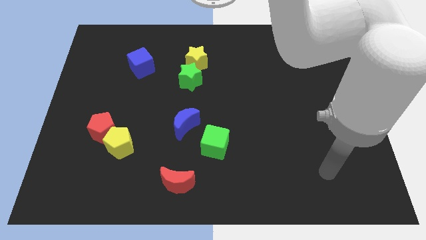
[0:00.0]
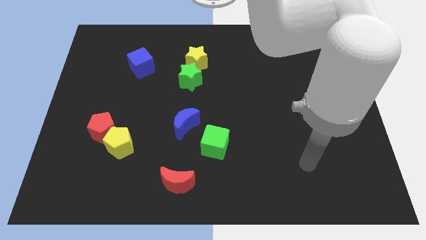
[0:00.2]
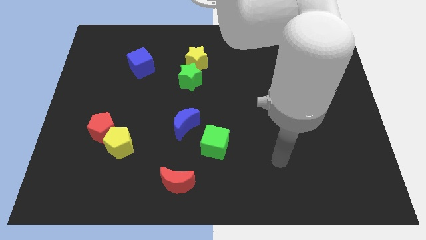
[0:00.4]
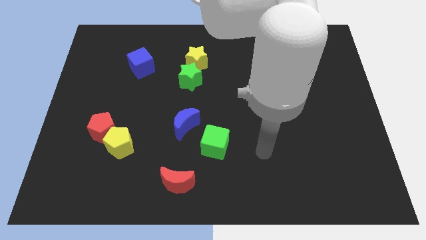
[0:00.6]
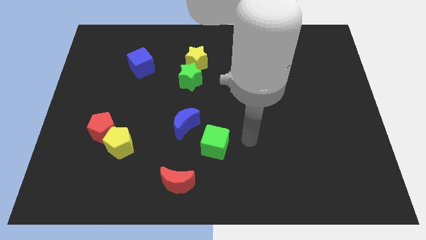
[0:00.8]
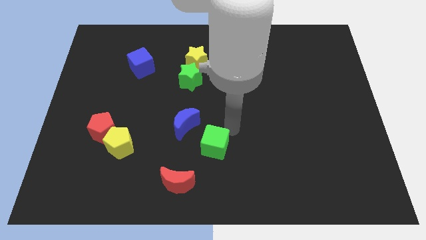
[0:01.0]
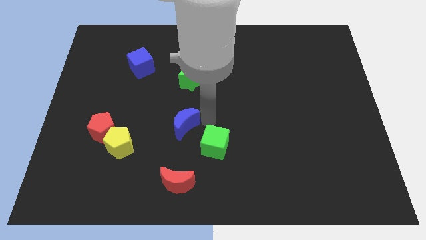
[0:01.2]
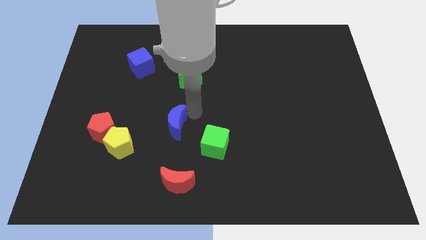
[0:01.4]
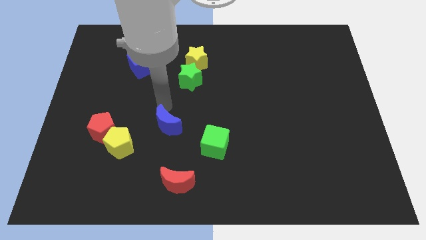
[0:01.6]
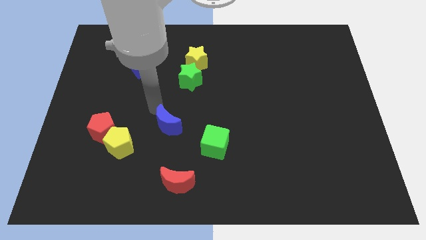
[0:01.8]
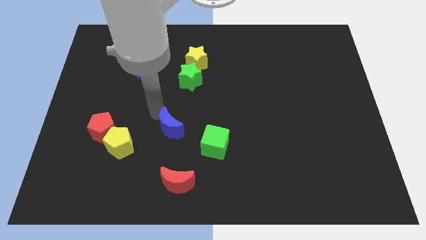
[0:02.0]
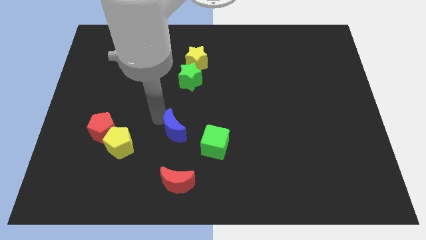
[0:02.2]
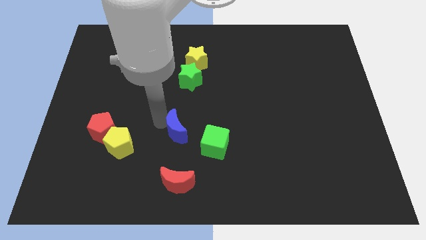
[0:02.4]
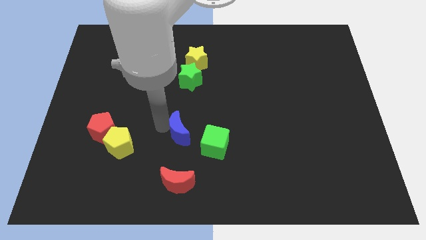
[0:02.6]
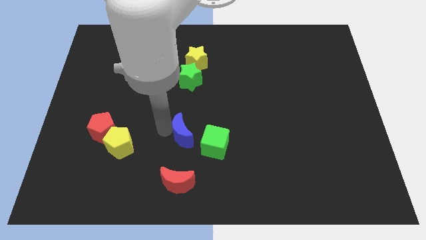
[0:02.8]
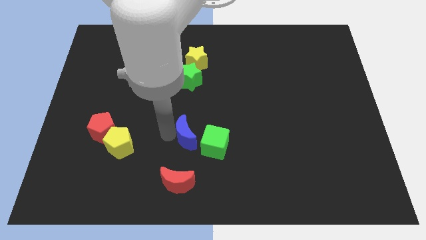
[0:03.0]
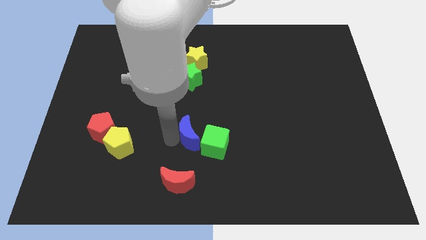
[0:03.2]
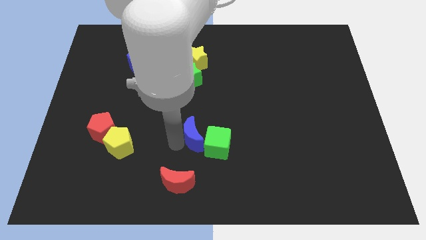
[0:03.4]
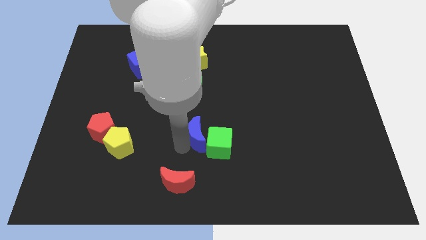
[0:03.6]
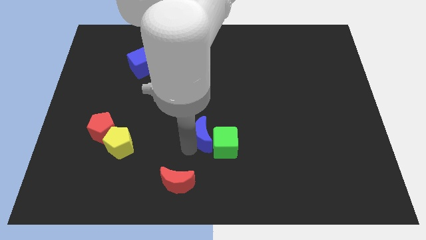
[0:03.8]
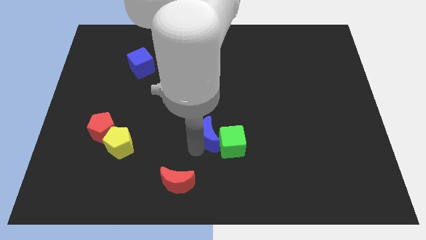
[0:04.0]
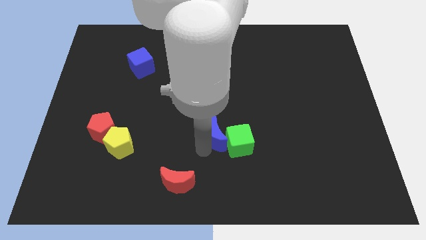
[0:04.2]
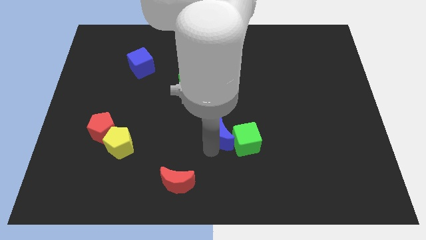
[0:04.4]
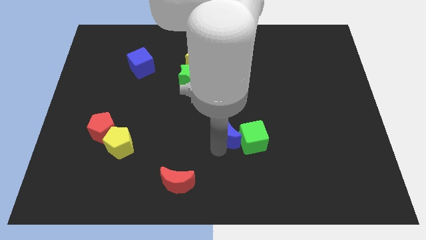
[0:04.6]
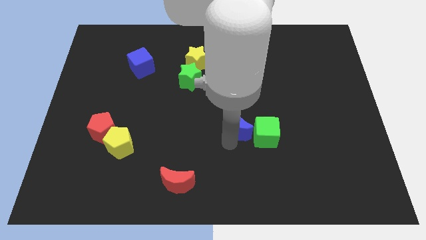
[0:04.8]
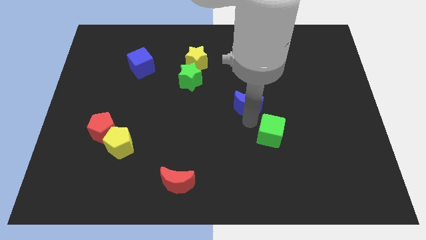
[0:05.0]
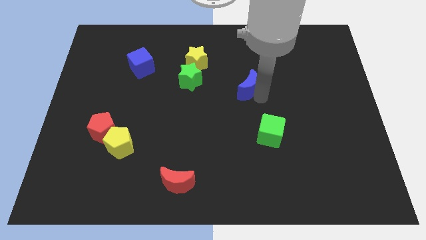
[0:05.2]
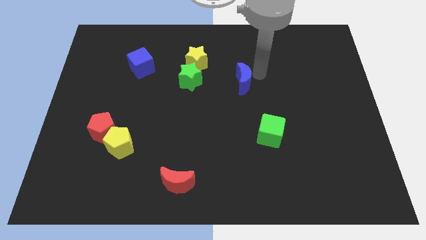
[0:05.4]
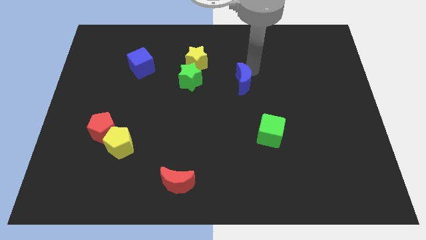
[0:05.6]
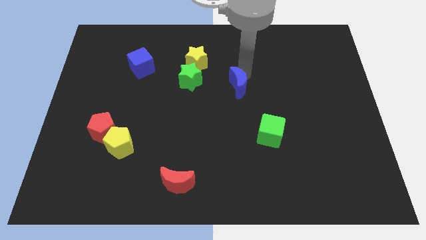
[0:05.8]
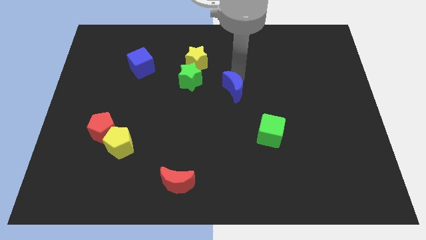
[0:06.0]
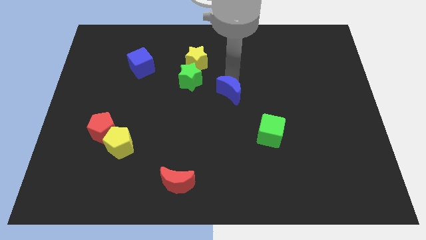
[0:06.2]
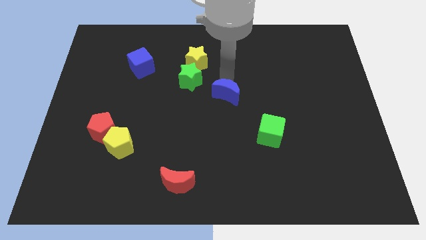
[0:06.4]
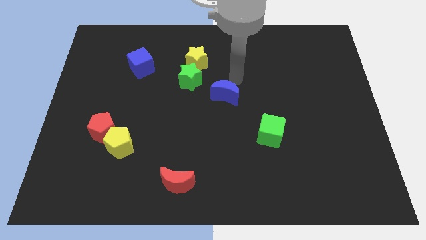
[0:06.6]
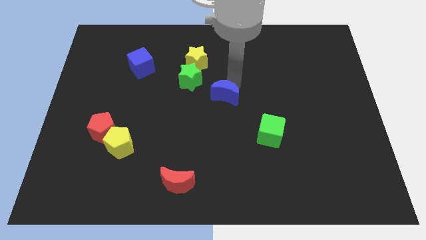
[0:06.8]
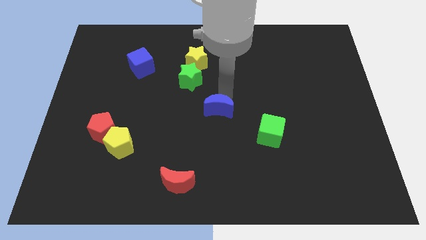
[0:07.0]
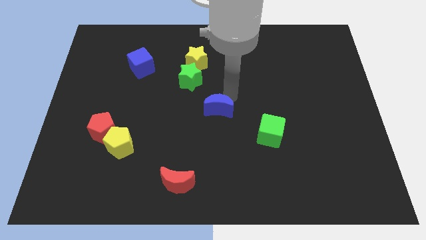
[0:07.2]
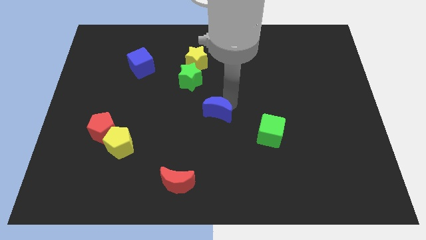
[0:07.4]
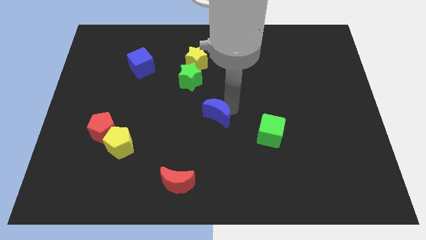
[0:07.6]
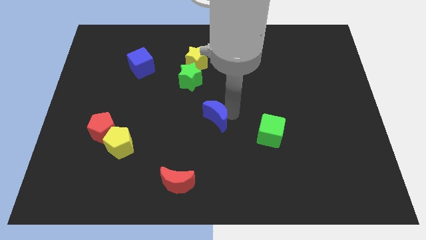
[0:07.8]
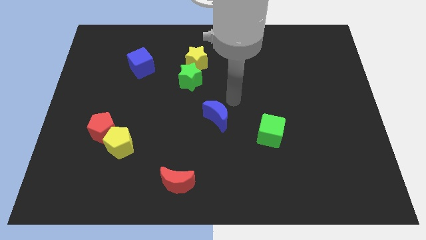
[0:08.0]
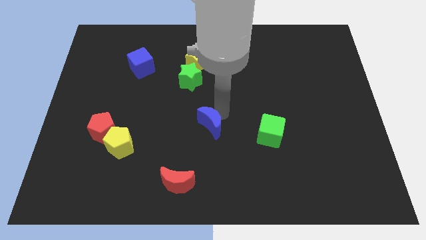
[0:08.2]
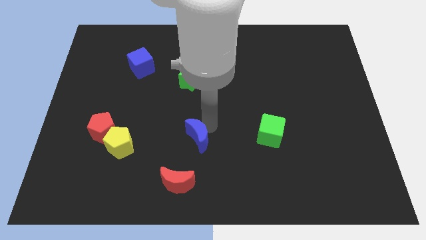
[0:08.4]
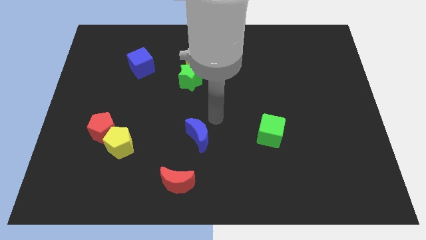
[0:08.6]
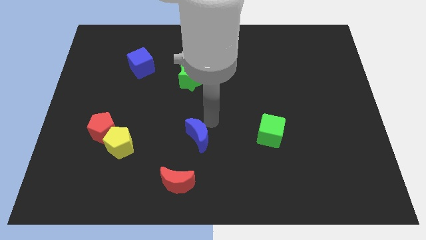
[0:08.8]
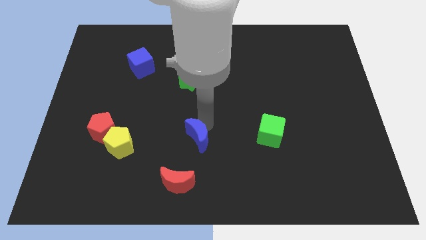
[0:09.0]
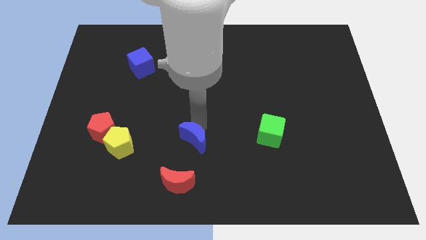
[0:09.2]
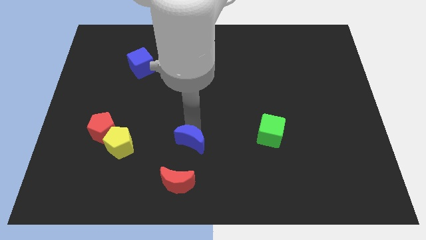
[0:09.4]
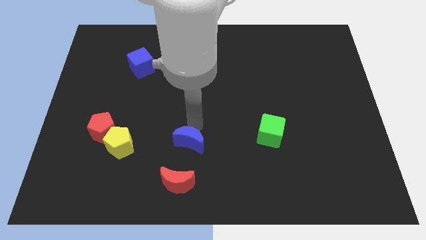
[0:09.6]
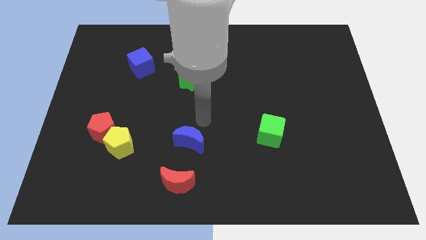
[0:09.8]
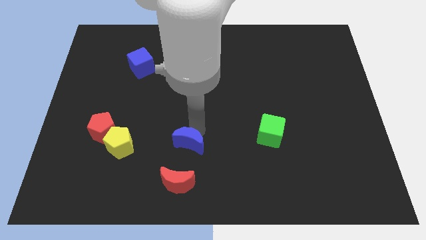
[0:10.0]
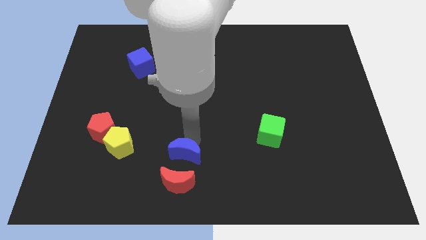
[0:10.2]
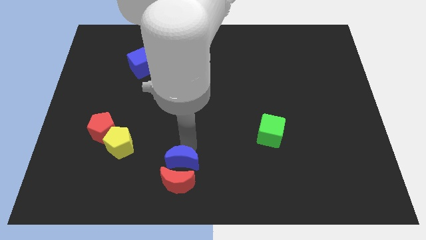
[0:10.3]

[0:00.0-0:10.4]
move the blue moon next to the red moon

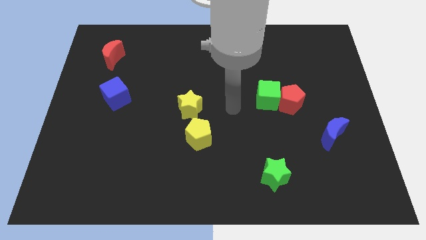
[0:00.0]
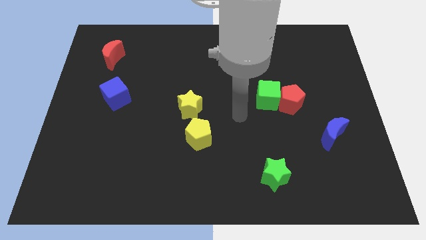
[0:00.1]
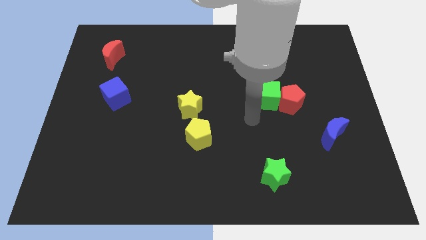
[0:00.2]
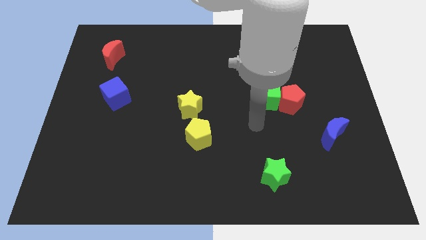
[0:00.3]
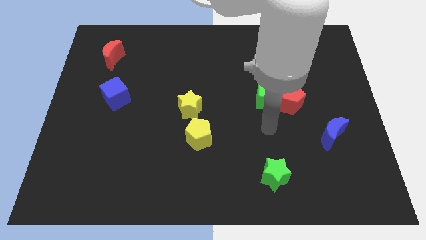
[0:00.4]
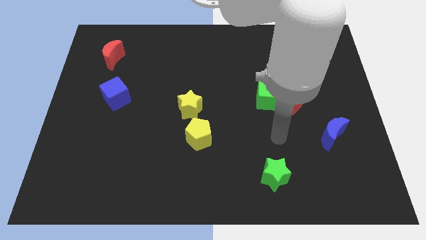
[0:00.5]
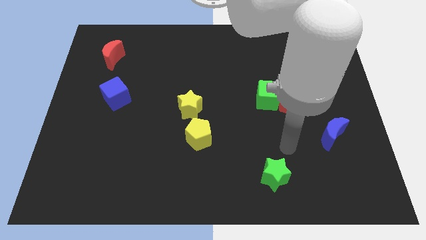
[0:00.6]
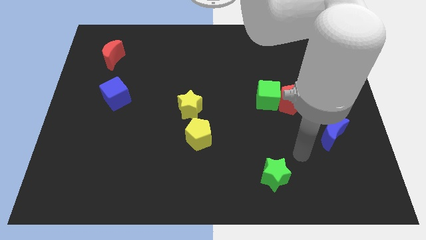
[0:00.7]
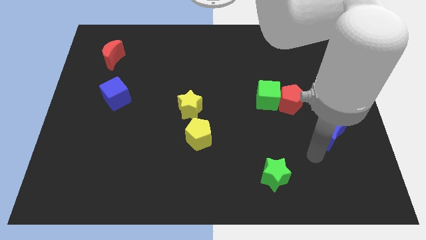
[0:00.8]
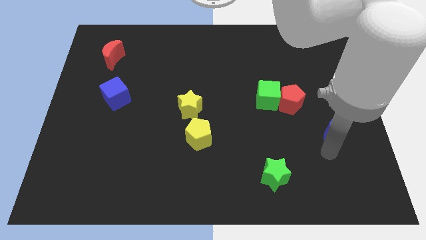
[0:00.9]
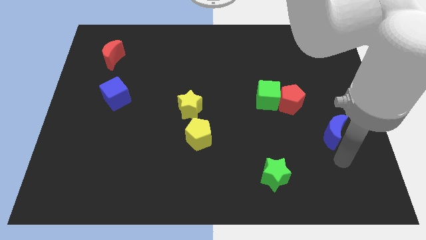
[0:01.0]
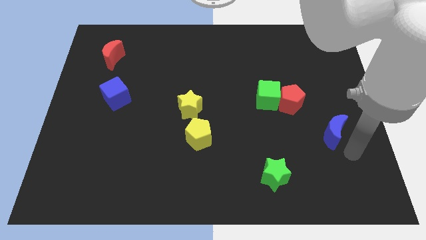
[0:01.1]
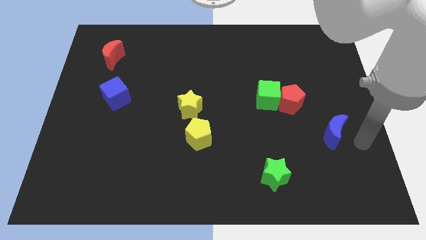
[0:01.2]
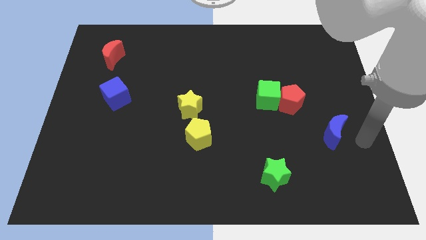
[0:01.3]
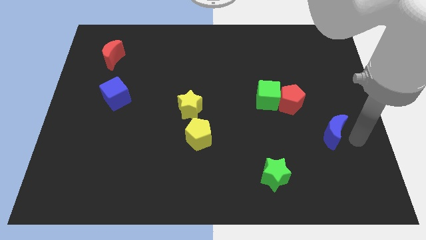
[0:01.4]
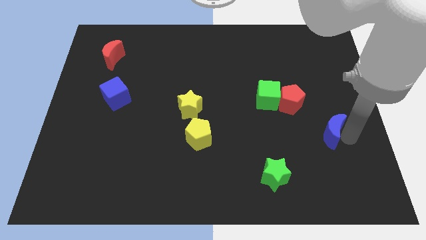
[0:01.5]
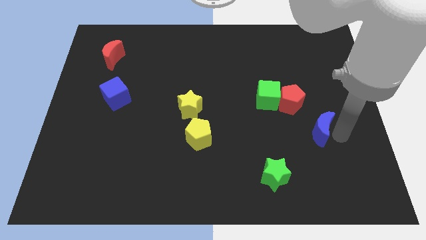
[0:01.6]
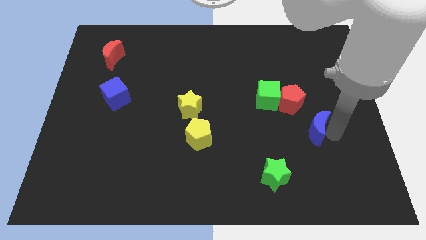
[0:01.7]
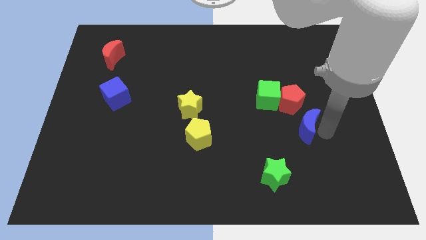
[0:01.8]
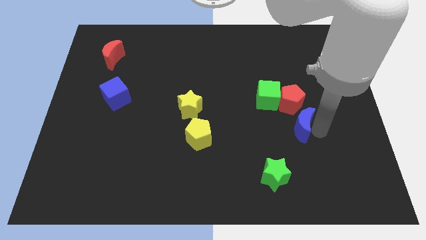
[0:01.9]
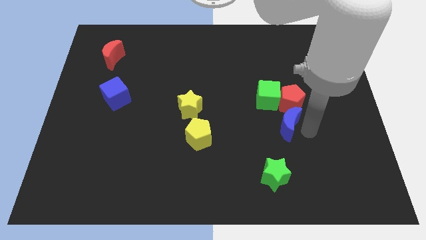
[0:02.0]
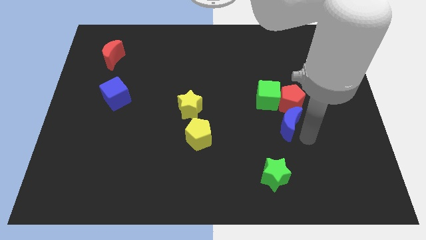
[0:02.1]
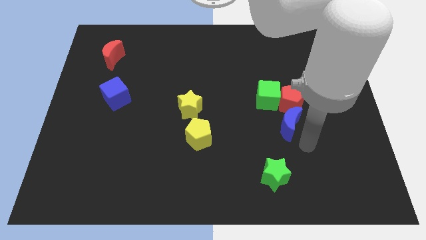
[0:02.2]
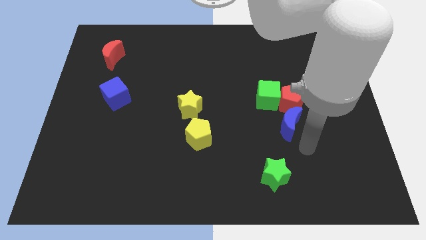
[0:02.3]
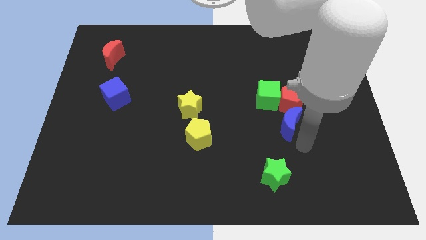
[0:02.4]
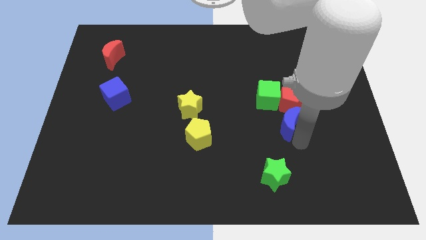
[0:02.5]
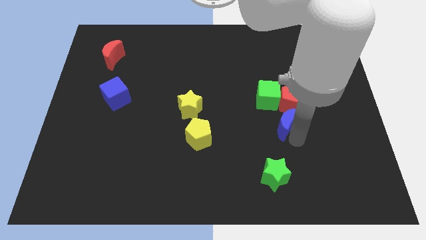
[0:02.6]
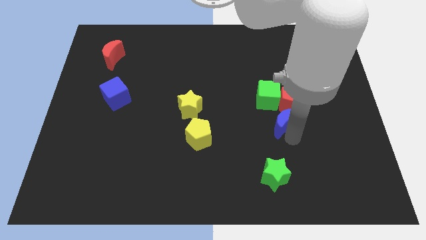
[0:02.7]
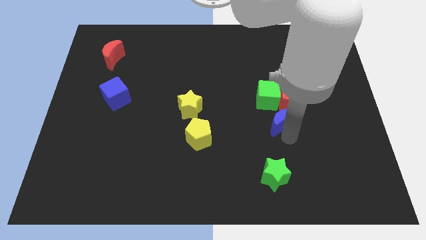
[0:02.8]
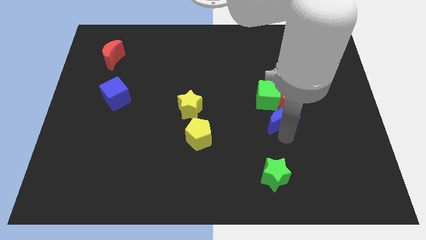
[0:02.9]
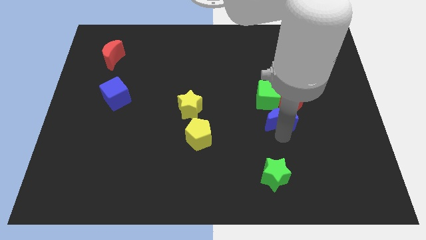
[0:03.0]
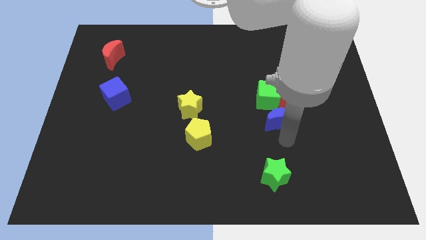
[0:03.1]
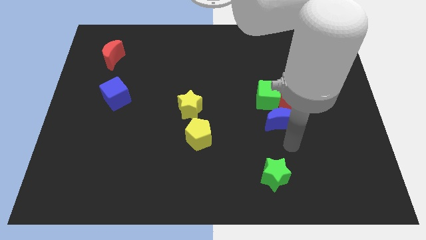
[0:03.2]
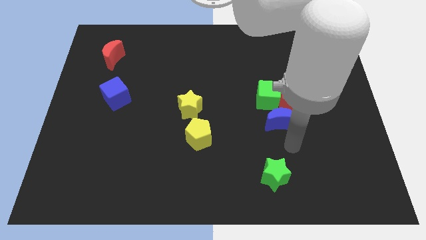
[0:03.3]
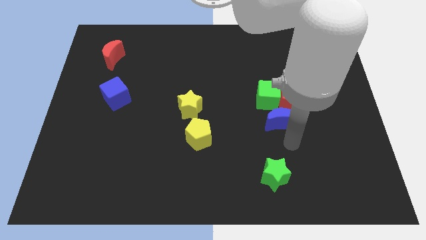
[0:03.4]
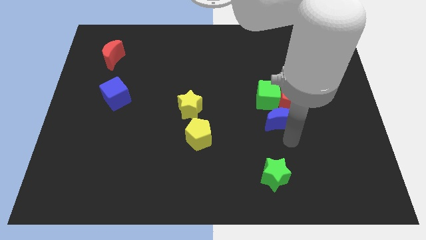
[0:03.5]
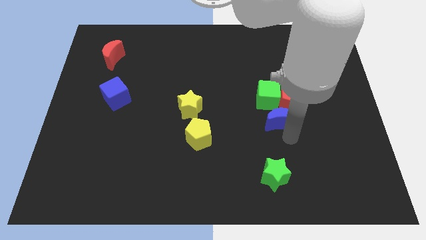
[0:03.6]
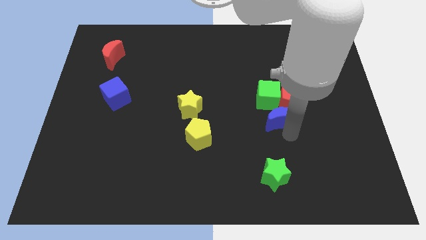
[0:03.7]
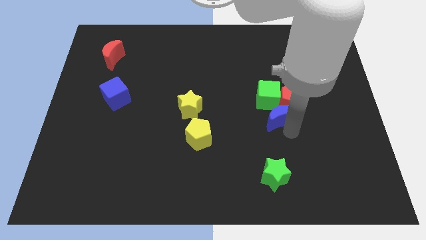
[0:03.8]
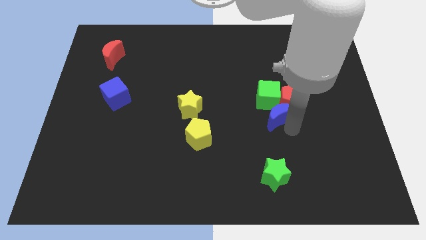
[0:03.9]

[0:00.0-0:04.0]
slide the blue moon close to the green cube
